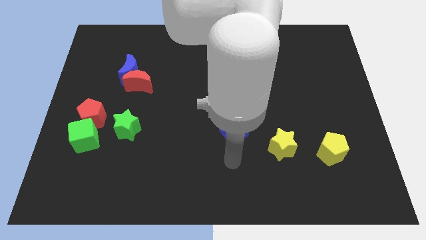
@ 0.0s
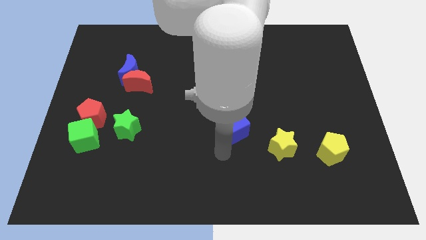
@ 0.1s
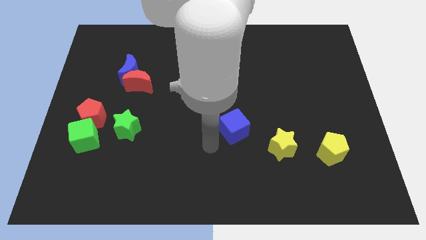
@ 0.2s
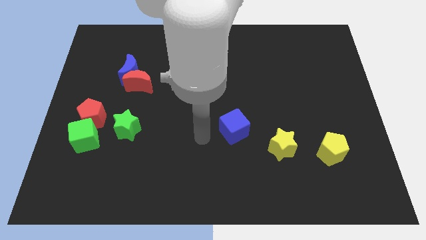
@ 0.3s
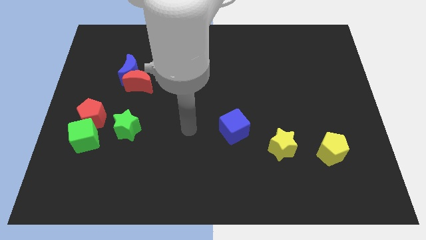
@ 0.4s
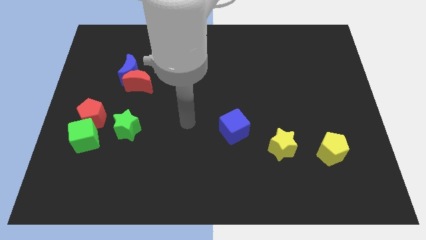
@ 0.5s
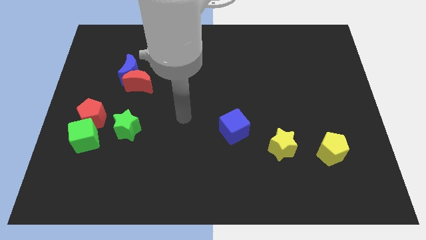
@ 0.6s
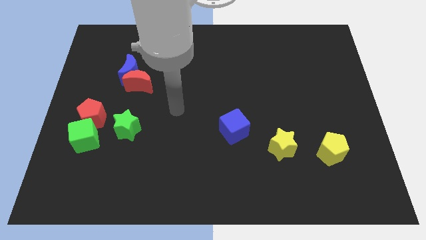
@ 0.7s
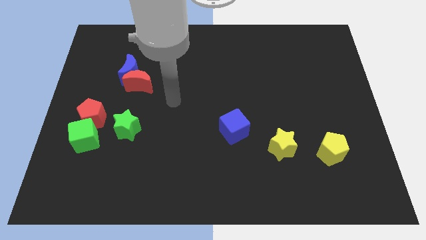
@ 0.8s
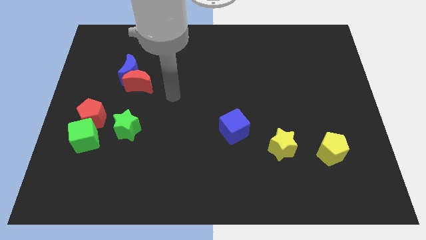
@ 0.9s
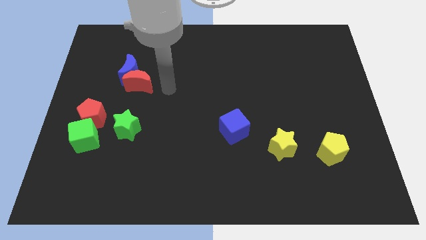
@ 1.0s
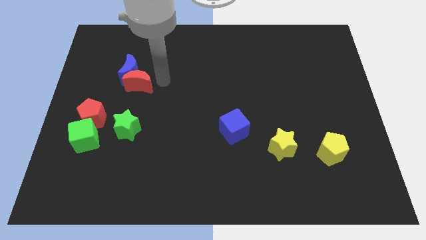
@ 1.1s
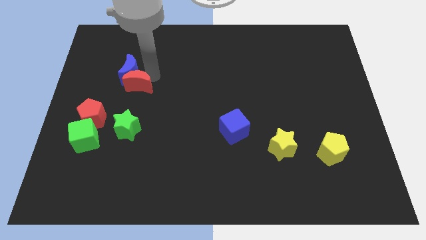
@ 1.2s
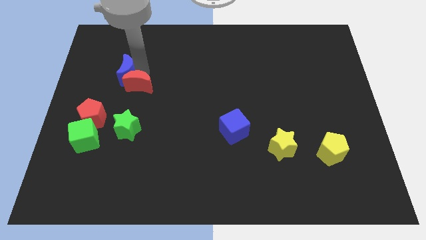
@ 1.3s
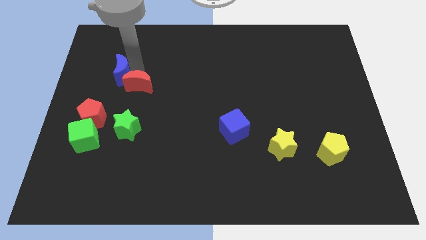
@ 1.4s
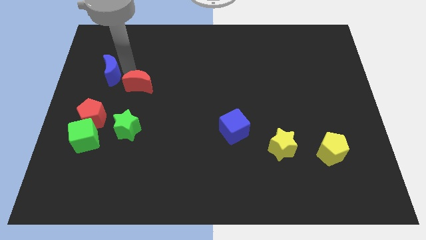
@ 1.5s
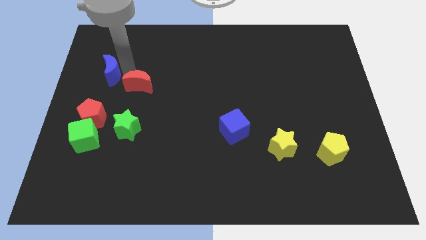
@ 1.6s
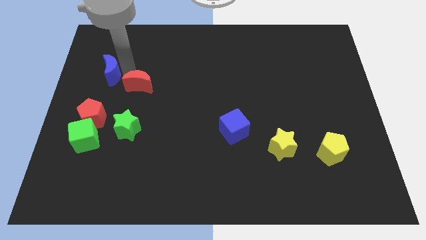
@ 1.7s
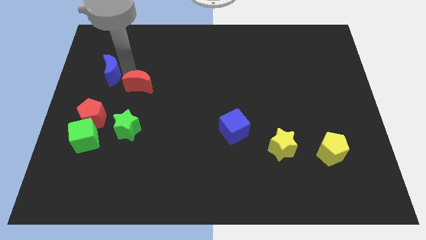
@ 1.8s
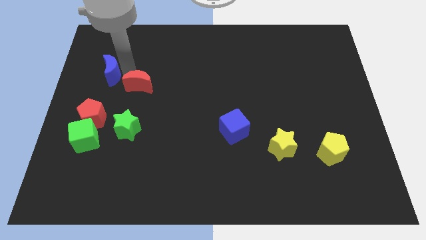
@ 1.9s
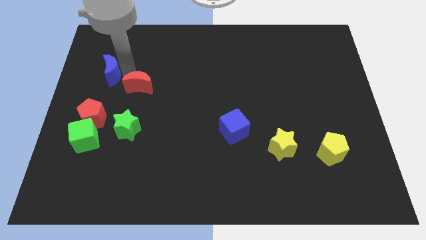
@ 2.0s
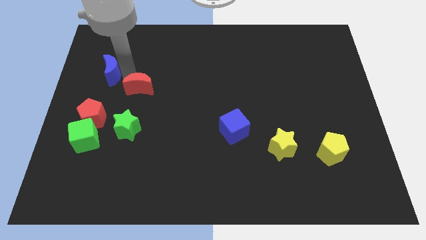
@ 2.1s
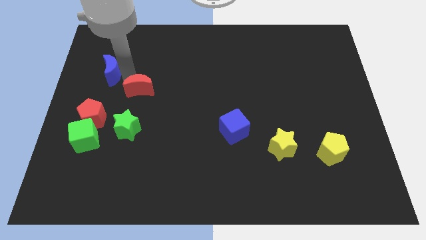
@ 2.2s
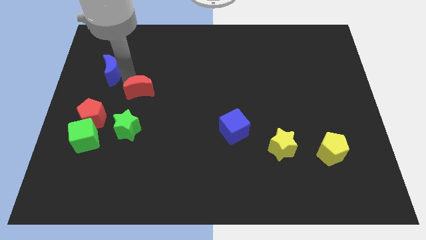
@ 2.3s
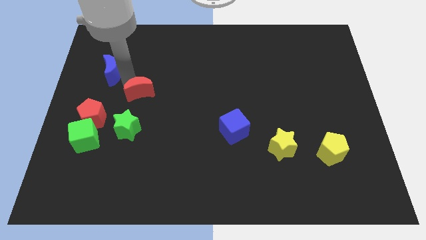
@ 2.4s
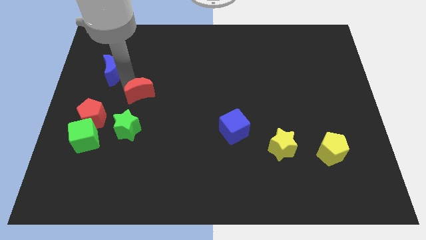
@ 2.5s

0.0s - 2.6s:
pull the red moon apart from the blue moon

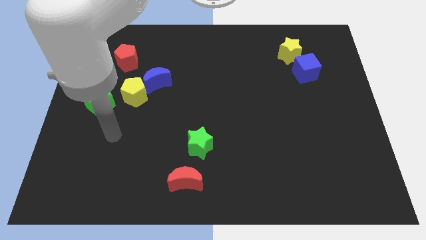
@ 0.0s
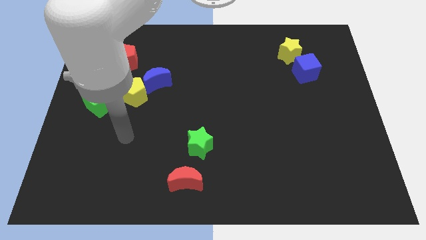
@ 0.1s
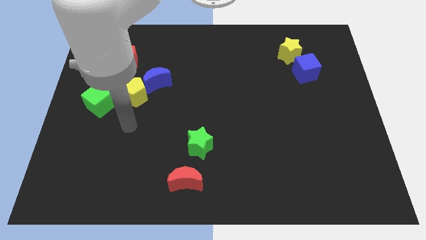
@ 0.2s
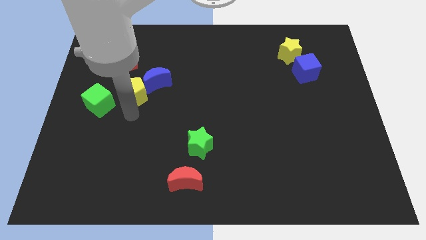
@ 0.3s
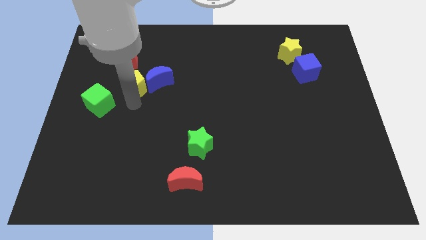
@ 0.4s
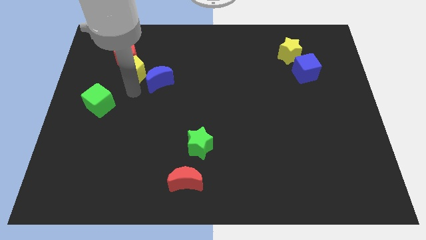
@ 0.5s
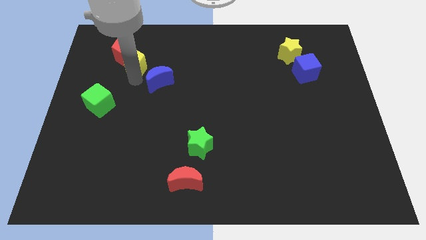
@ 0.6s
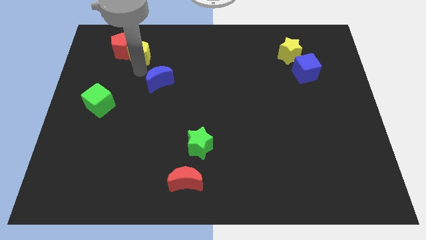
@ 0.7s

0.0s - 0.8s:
separate the blue moon from the yellow pentagon

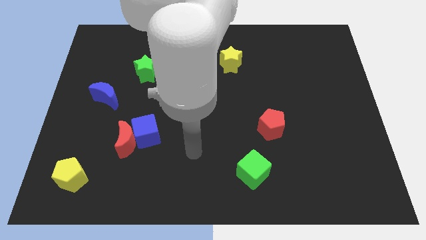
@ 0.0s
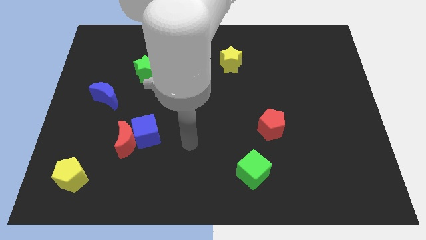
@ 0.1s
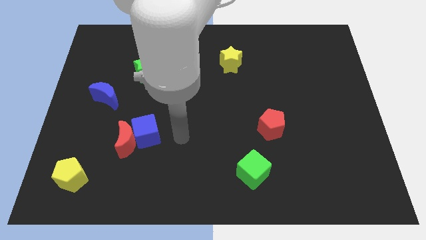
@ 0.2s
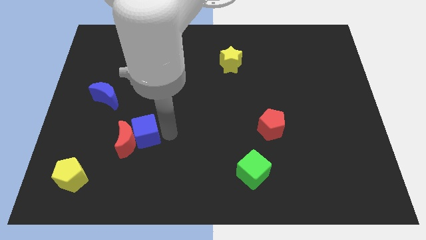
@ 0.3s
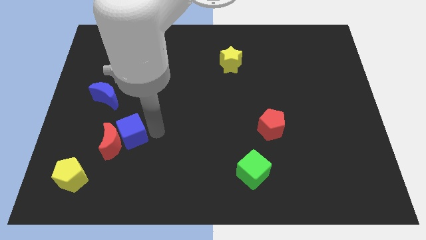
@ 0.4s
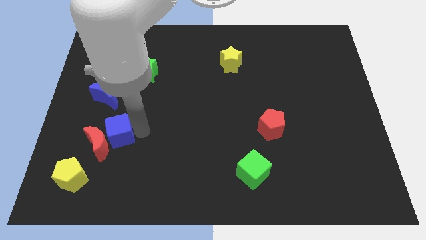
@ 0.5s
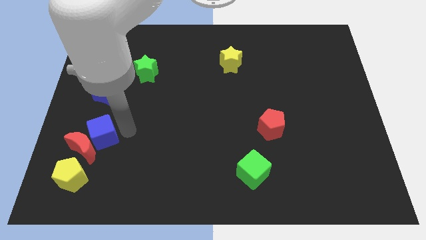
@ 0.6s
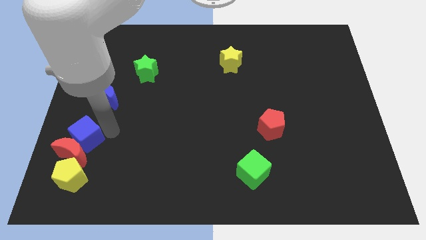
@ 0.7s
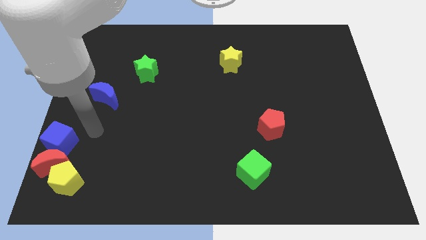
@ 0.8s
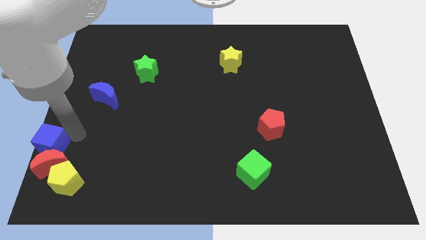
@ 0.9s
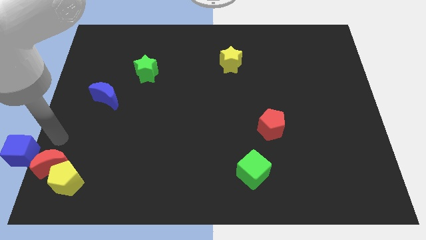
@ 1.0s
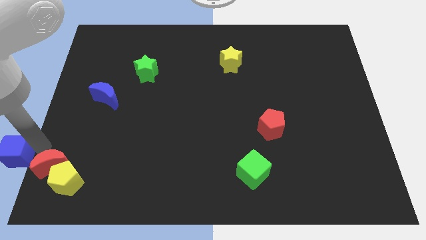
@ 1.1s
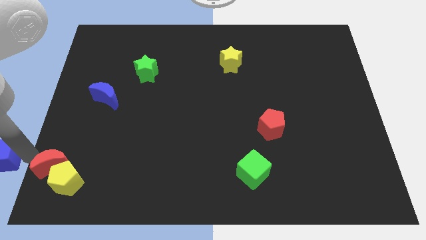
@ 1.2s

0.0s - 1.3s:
move the red moon away from the blue cube

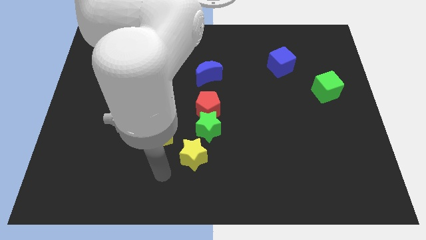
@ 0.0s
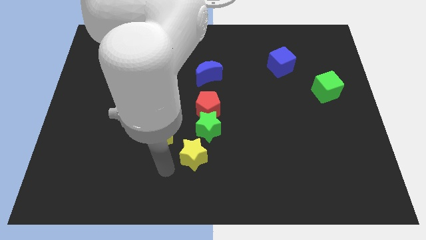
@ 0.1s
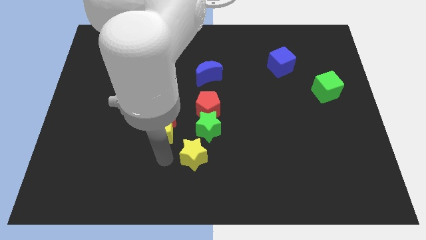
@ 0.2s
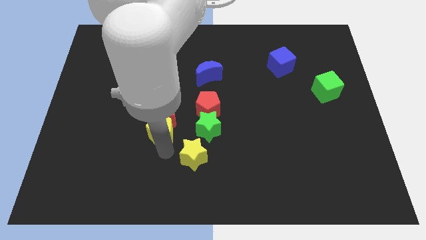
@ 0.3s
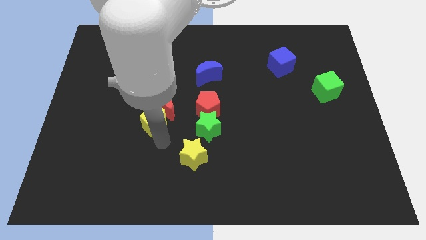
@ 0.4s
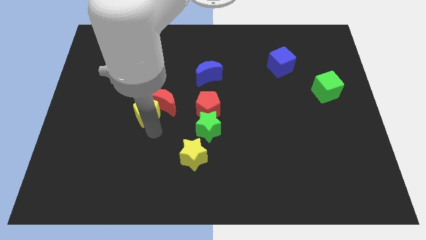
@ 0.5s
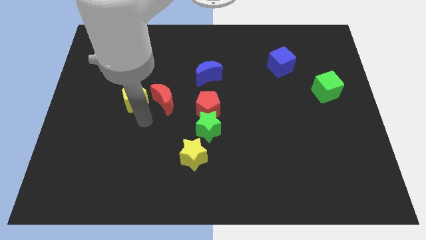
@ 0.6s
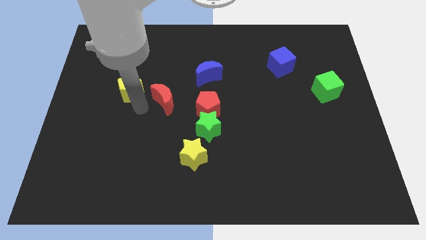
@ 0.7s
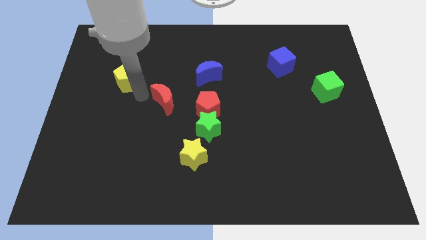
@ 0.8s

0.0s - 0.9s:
separate the red moon from the yellow pentagon

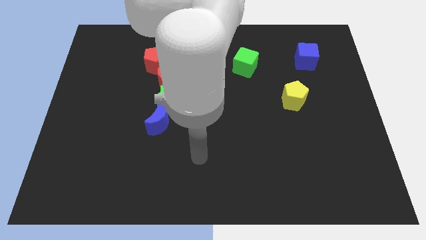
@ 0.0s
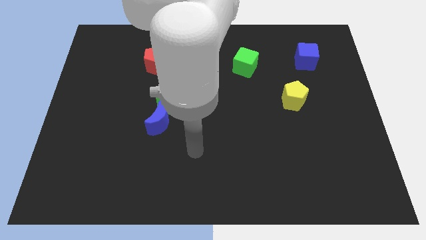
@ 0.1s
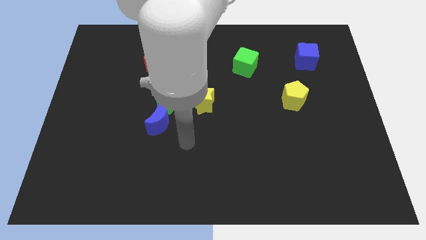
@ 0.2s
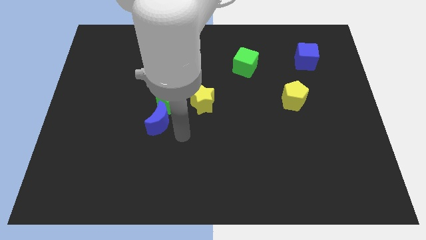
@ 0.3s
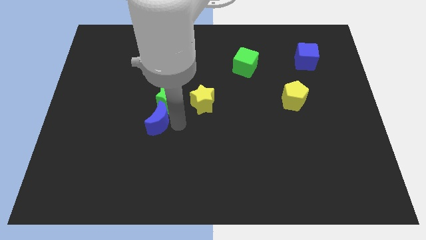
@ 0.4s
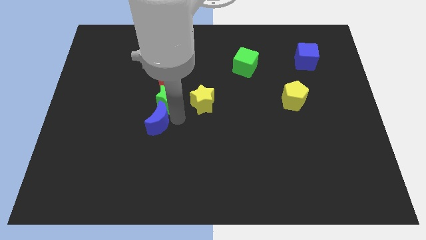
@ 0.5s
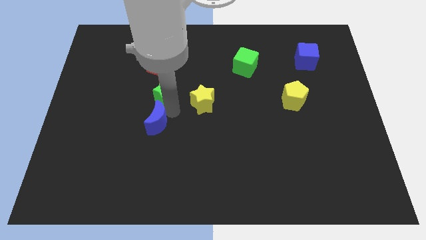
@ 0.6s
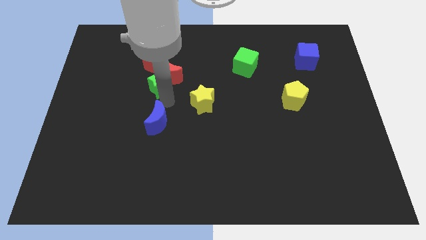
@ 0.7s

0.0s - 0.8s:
separate the blue moon from the green star

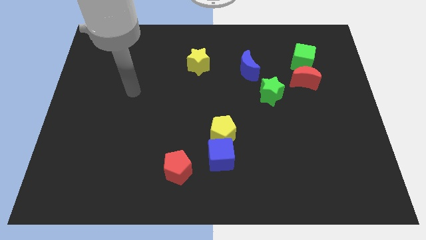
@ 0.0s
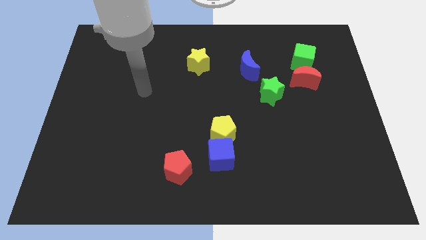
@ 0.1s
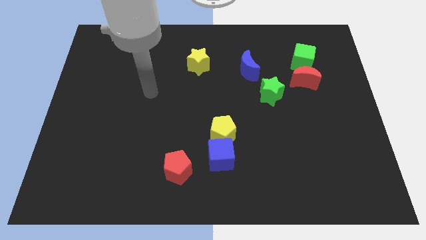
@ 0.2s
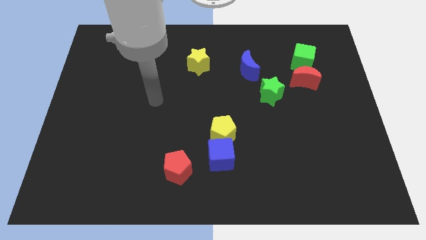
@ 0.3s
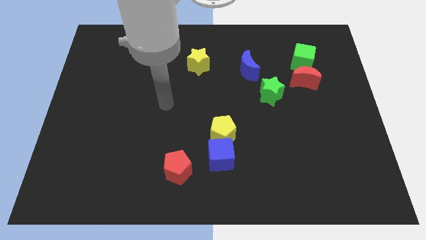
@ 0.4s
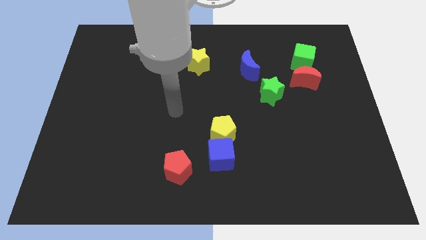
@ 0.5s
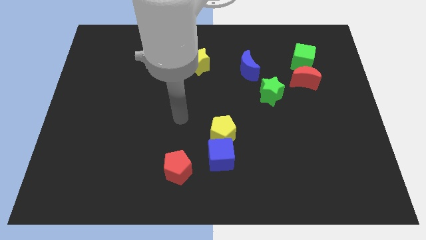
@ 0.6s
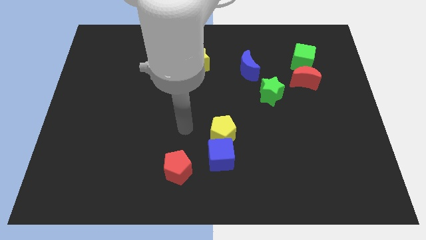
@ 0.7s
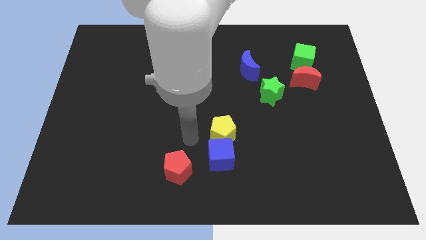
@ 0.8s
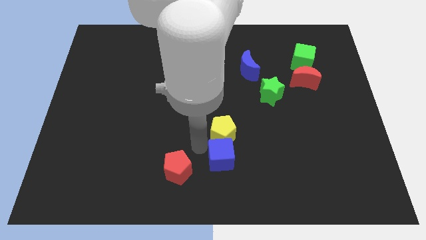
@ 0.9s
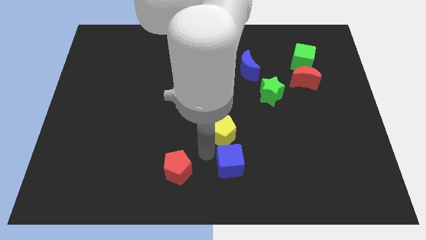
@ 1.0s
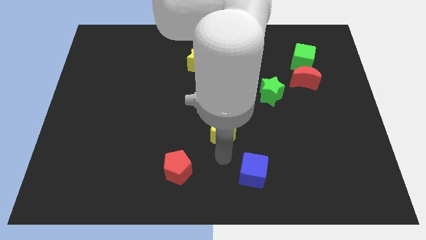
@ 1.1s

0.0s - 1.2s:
move the yellow pentagon away from the blue cube

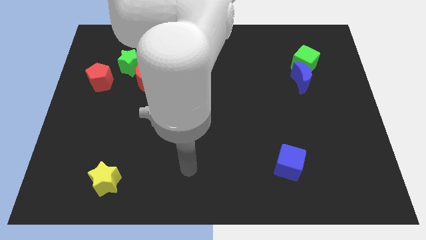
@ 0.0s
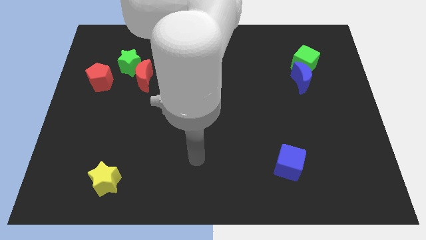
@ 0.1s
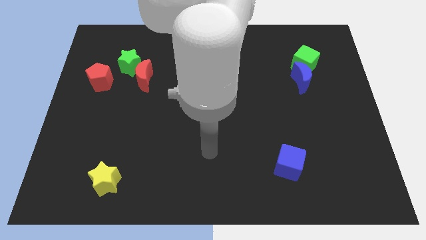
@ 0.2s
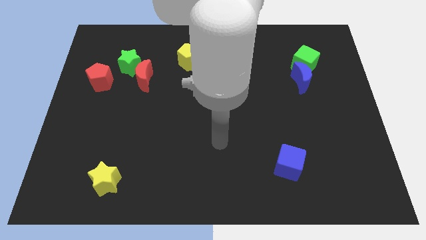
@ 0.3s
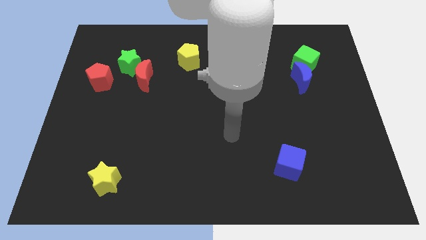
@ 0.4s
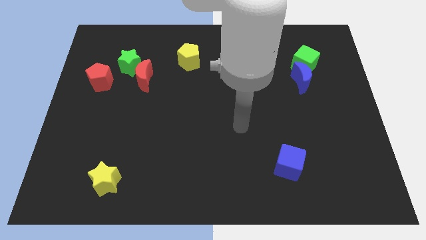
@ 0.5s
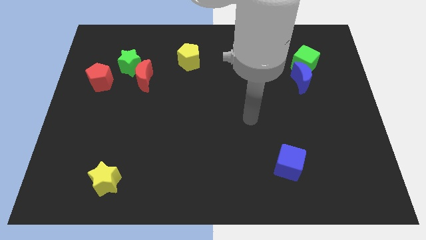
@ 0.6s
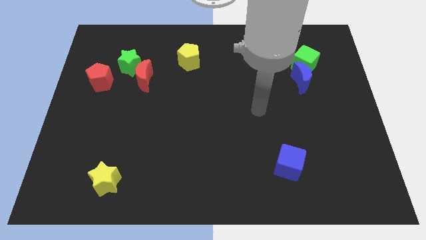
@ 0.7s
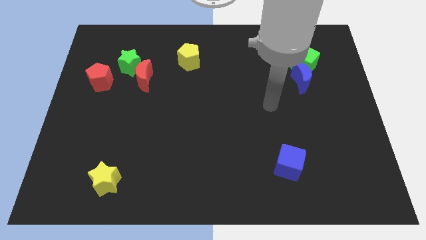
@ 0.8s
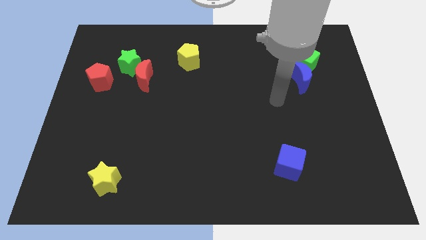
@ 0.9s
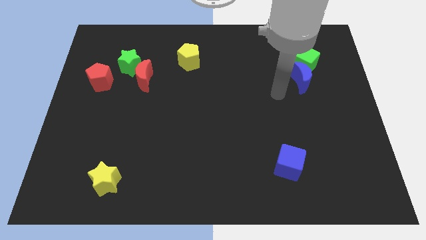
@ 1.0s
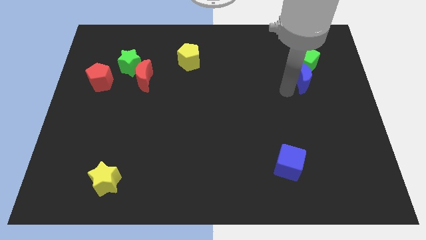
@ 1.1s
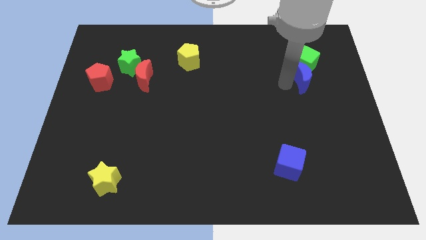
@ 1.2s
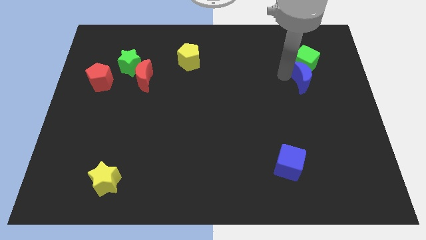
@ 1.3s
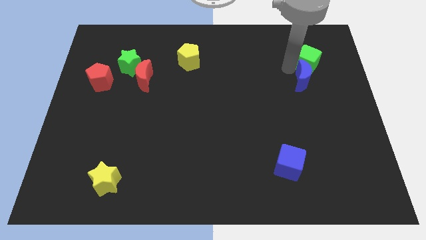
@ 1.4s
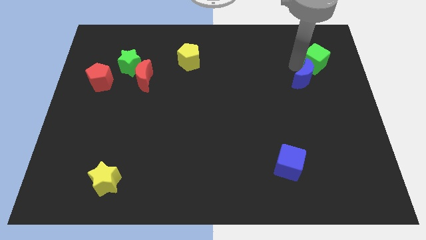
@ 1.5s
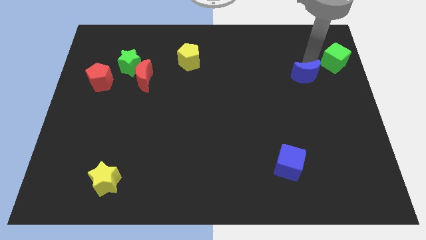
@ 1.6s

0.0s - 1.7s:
pull the blue moon apart from the green cube
